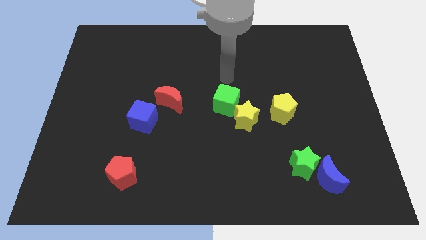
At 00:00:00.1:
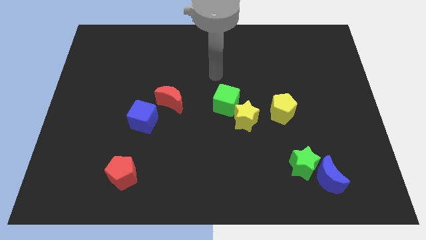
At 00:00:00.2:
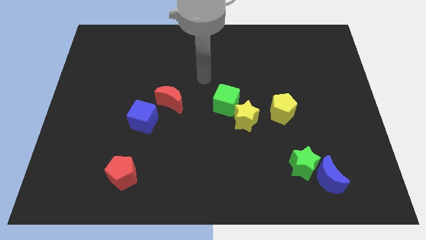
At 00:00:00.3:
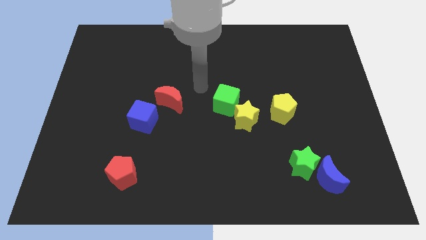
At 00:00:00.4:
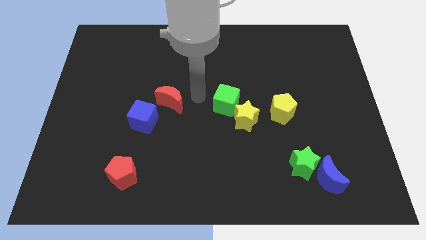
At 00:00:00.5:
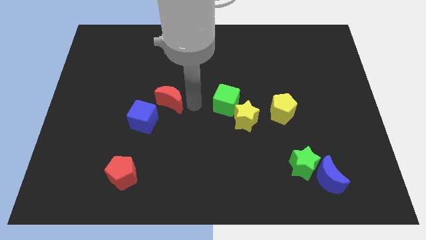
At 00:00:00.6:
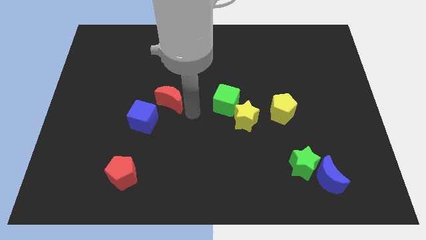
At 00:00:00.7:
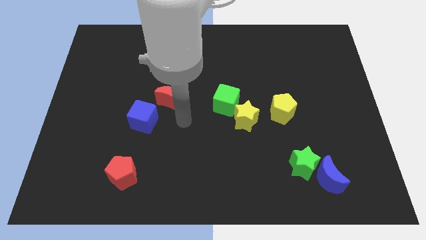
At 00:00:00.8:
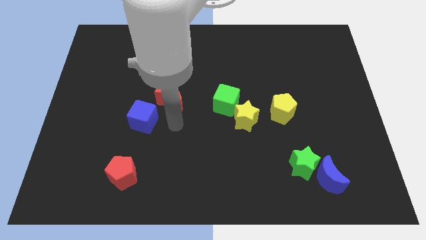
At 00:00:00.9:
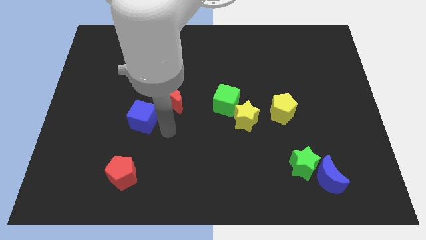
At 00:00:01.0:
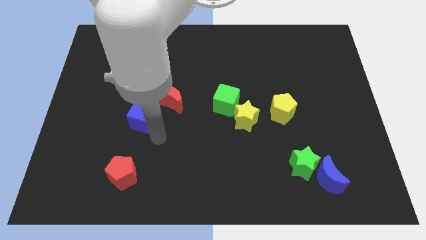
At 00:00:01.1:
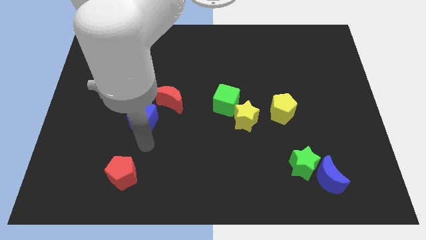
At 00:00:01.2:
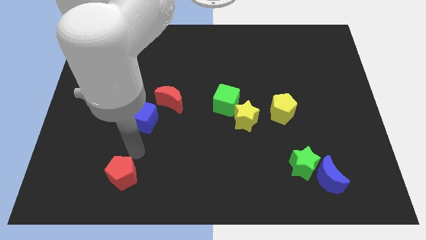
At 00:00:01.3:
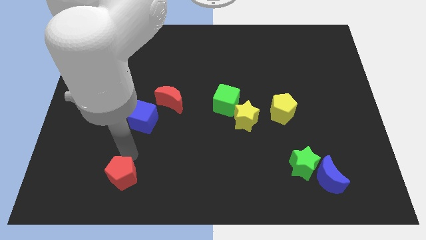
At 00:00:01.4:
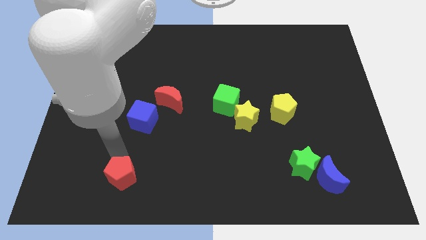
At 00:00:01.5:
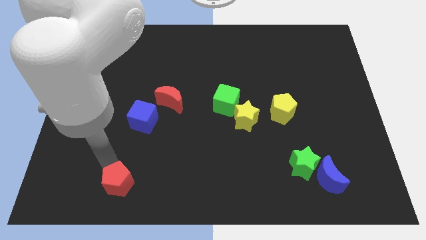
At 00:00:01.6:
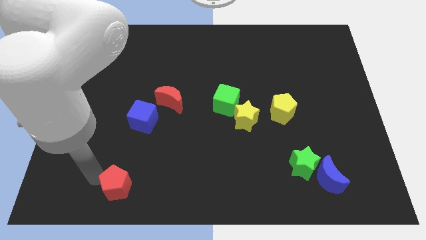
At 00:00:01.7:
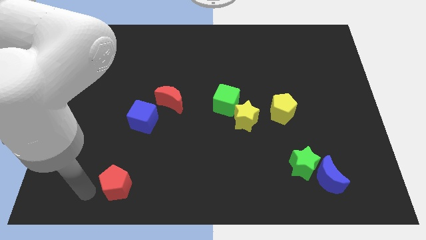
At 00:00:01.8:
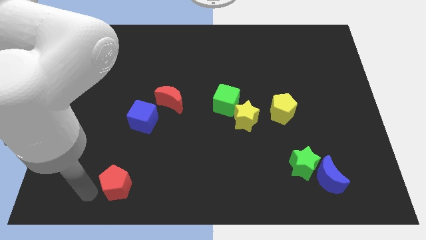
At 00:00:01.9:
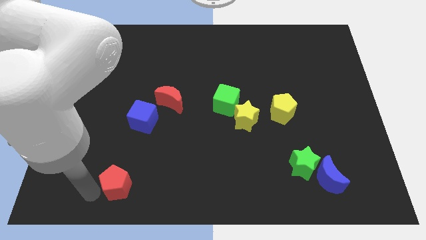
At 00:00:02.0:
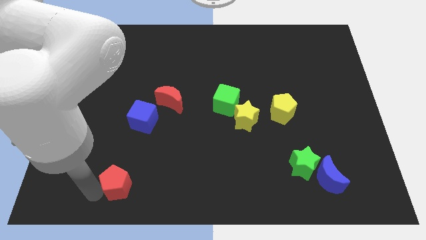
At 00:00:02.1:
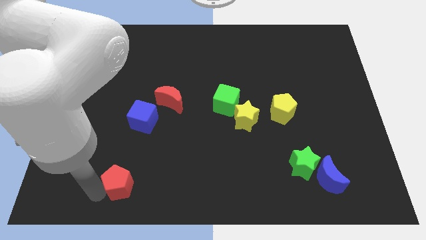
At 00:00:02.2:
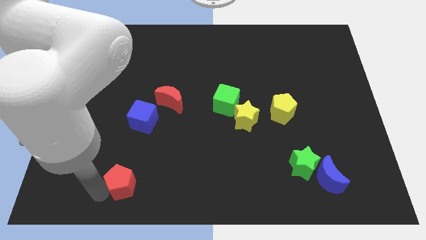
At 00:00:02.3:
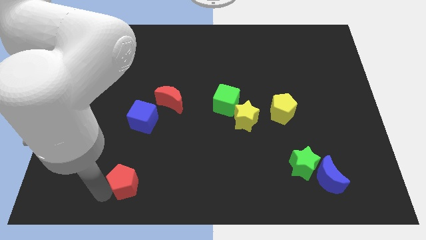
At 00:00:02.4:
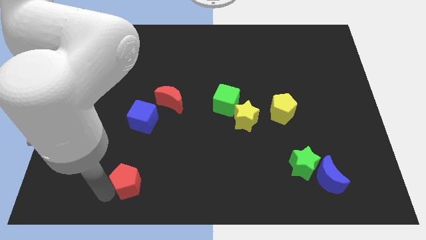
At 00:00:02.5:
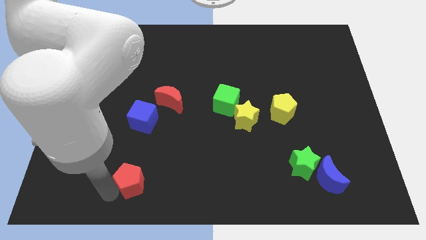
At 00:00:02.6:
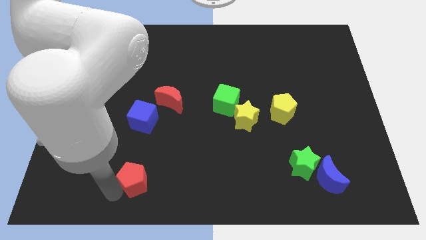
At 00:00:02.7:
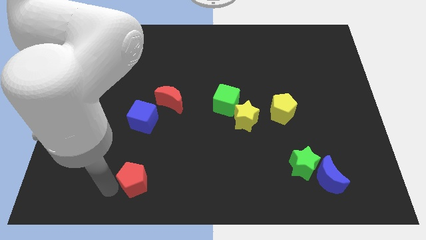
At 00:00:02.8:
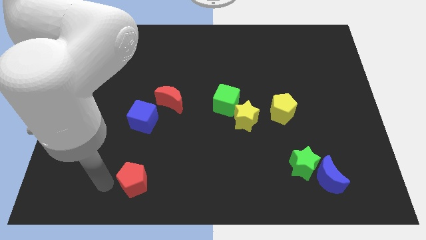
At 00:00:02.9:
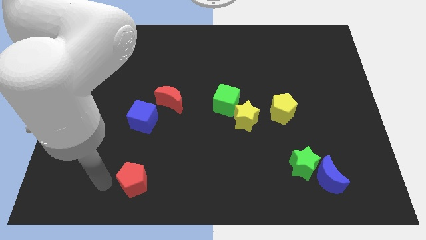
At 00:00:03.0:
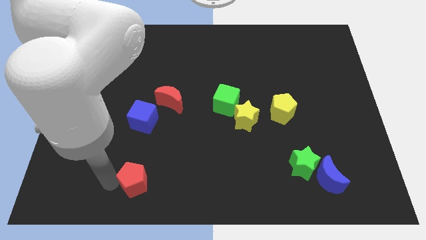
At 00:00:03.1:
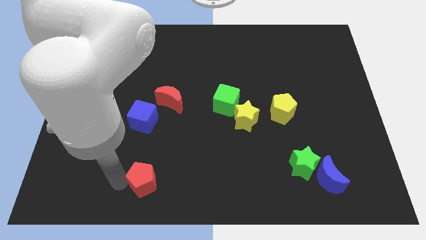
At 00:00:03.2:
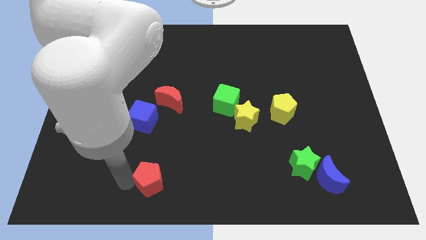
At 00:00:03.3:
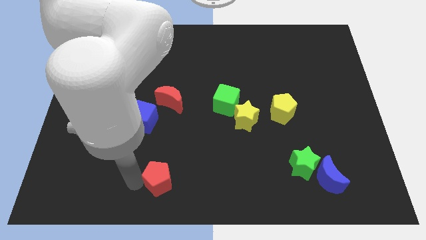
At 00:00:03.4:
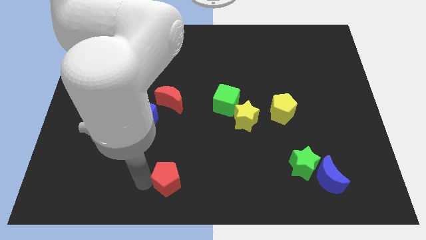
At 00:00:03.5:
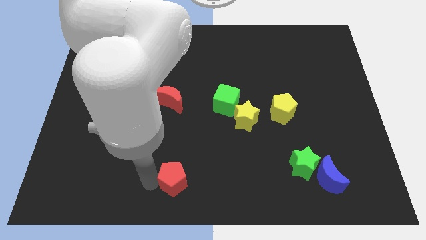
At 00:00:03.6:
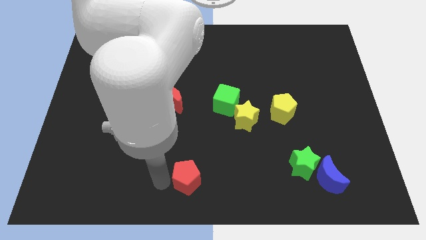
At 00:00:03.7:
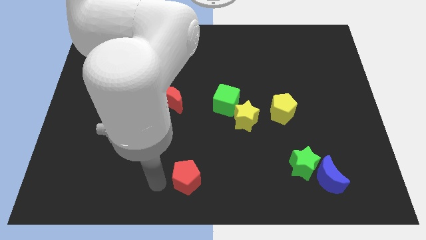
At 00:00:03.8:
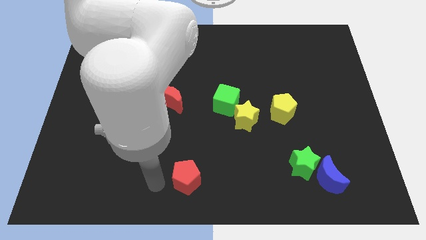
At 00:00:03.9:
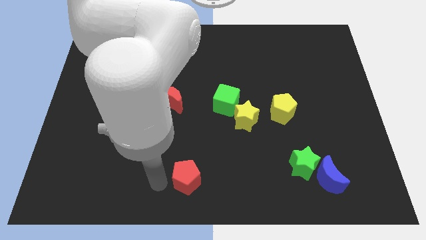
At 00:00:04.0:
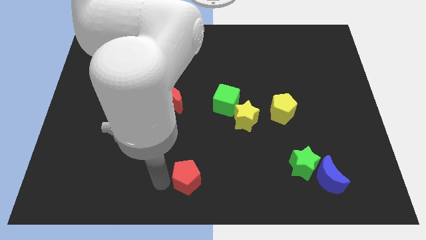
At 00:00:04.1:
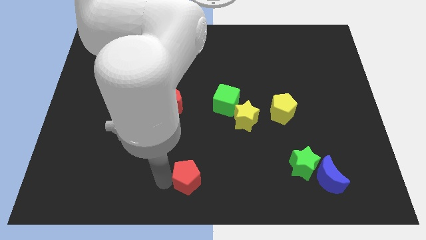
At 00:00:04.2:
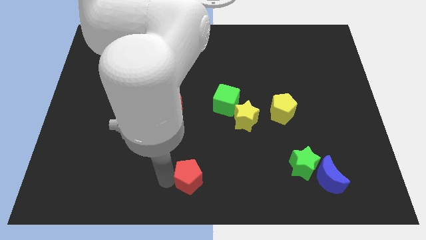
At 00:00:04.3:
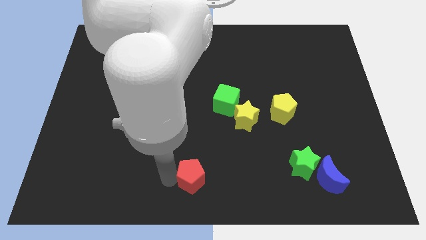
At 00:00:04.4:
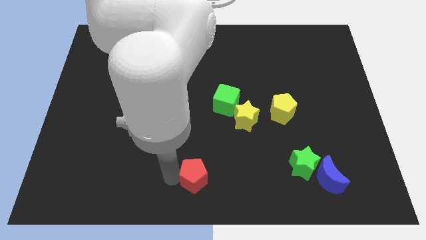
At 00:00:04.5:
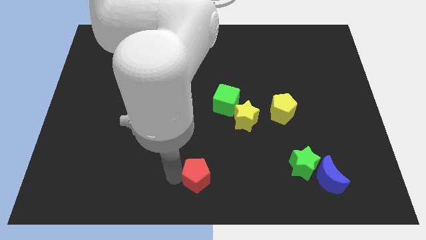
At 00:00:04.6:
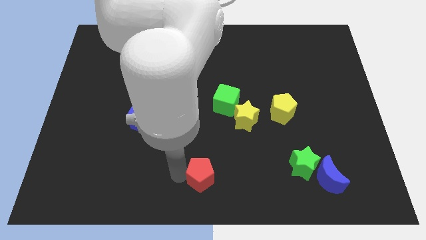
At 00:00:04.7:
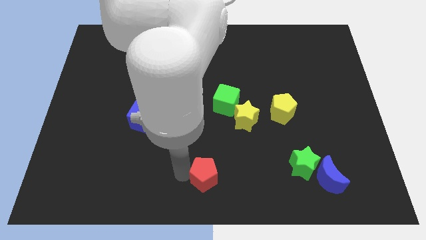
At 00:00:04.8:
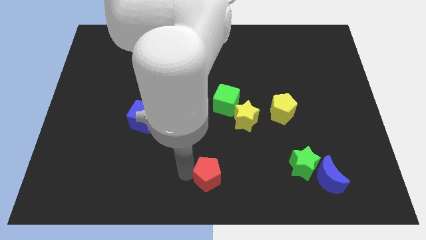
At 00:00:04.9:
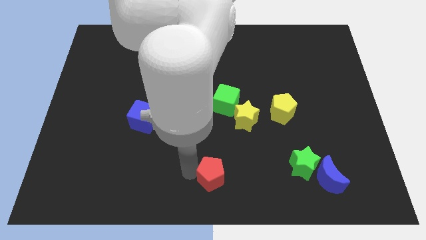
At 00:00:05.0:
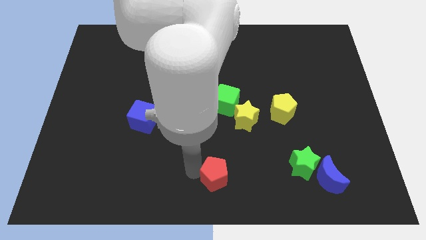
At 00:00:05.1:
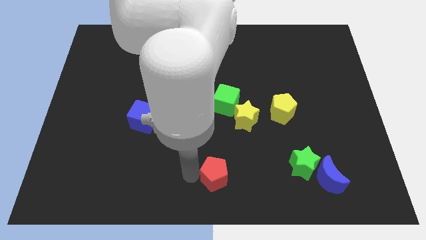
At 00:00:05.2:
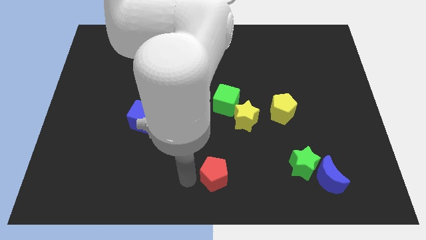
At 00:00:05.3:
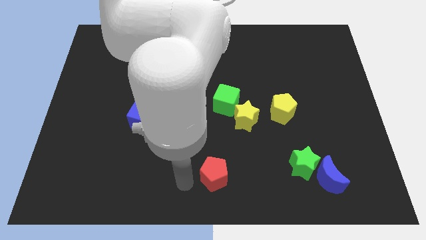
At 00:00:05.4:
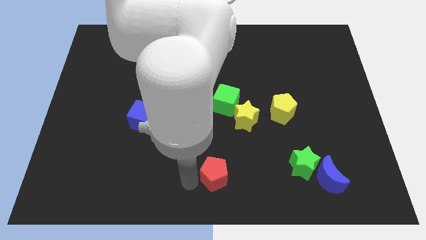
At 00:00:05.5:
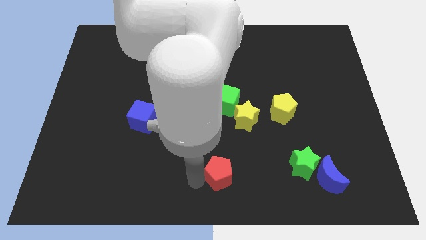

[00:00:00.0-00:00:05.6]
slide the red pentagon to the right

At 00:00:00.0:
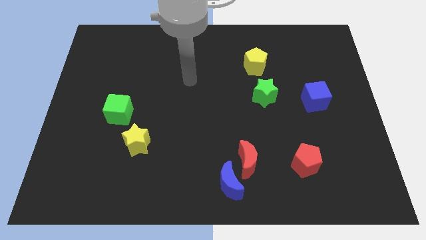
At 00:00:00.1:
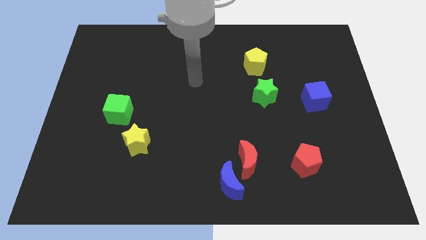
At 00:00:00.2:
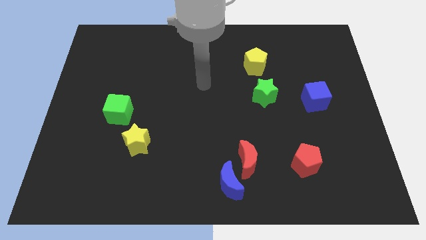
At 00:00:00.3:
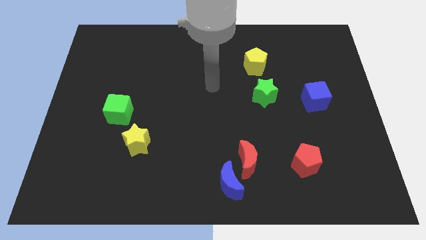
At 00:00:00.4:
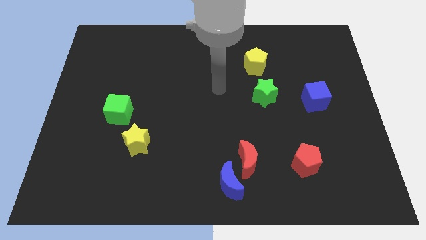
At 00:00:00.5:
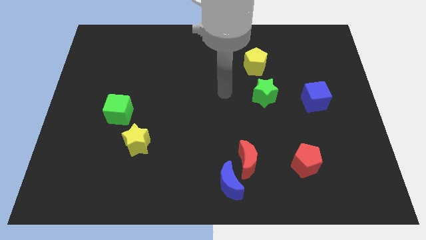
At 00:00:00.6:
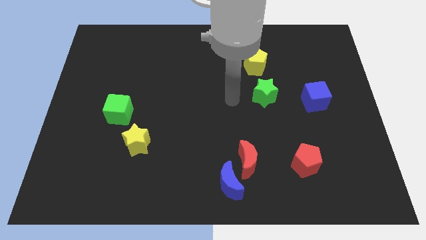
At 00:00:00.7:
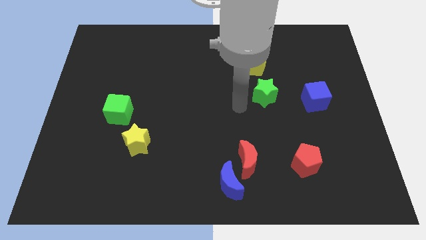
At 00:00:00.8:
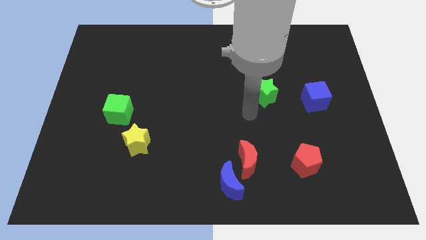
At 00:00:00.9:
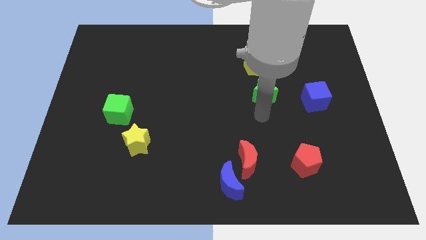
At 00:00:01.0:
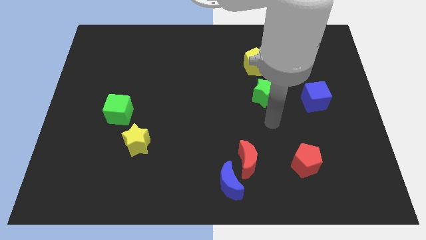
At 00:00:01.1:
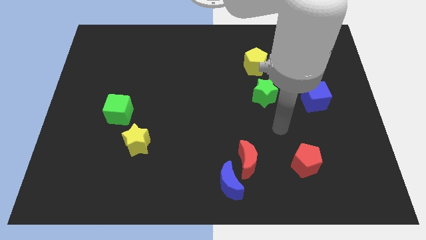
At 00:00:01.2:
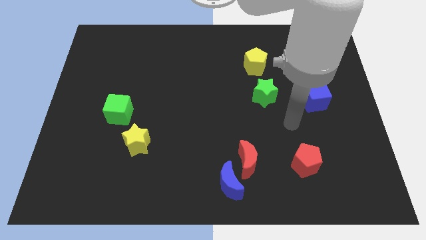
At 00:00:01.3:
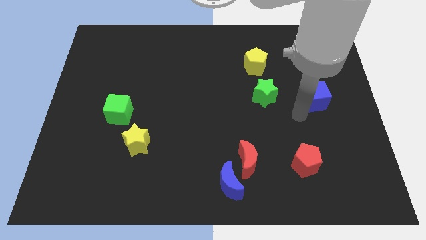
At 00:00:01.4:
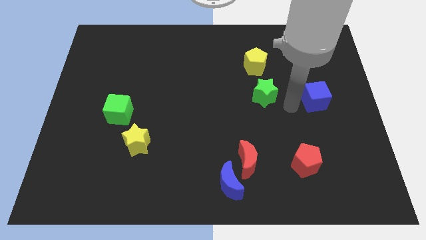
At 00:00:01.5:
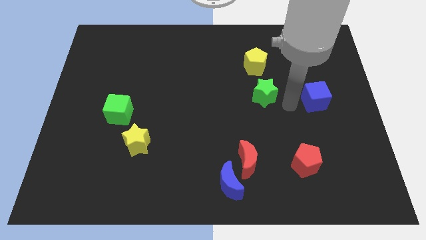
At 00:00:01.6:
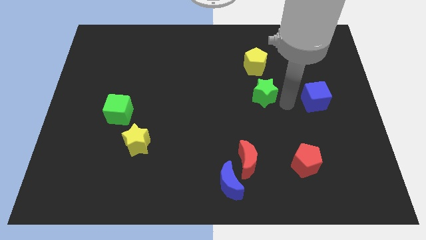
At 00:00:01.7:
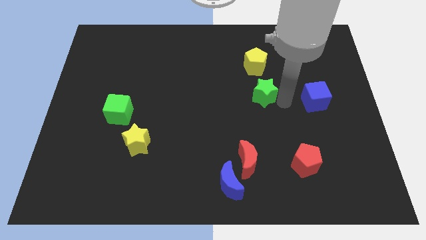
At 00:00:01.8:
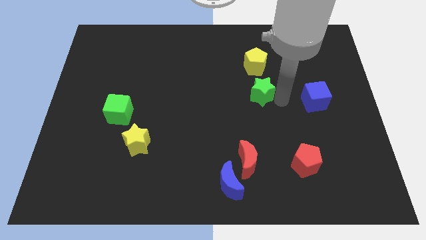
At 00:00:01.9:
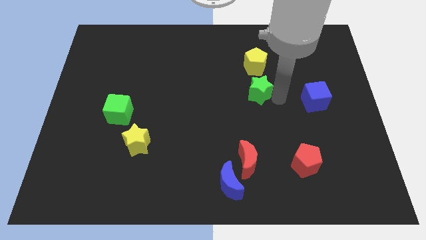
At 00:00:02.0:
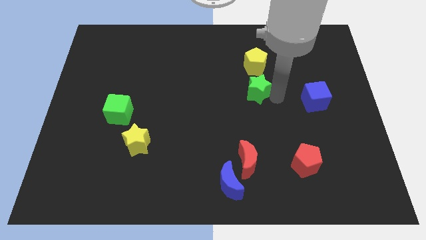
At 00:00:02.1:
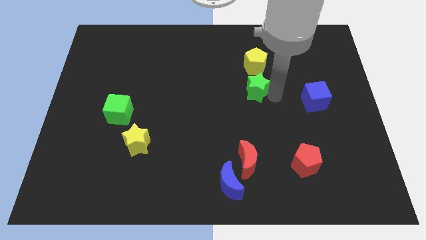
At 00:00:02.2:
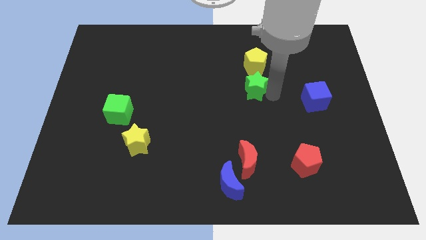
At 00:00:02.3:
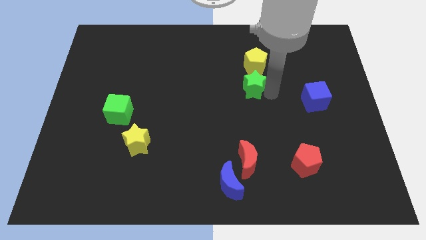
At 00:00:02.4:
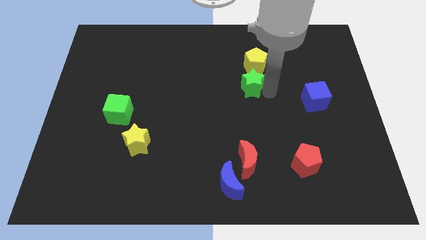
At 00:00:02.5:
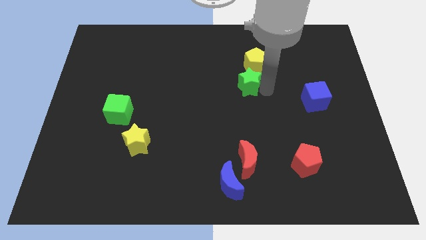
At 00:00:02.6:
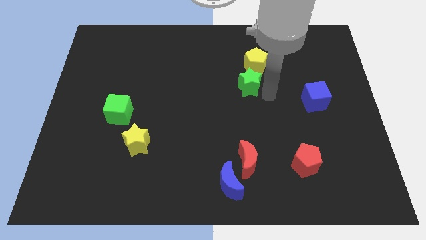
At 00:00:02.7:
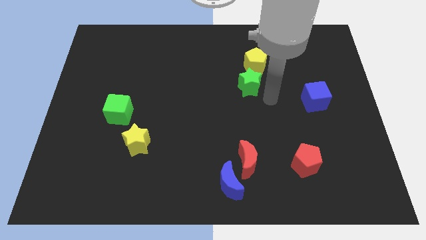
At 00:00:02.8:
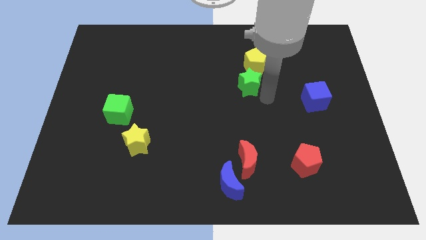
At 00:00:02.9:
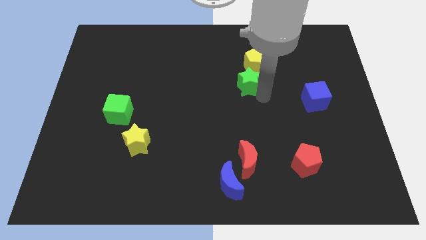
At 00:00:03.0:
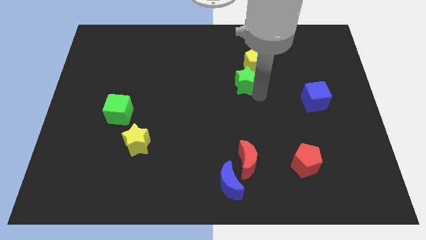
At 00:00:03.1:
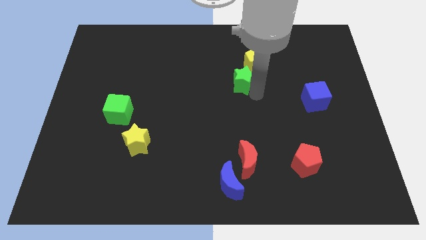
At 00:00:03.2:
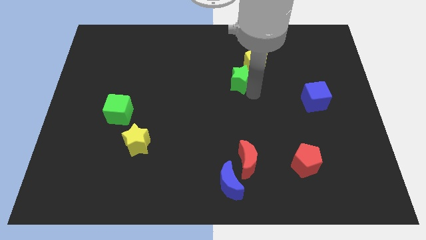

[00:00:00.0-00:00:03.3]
move the green star diagonally upwards and left slightly
